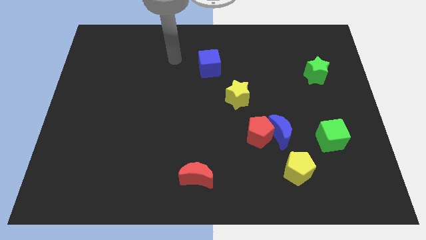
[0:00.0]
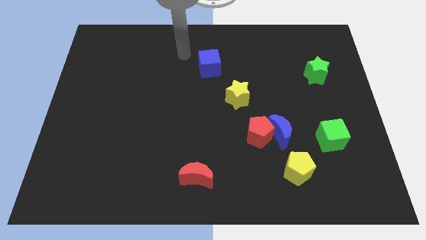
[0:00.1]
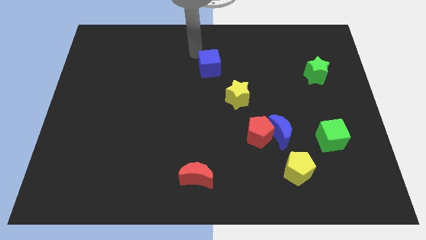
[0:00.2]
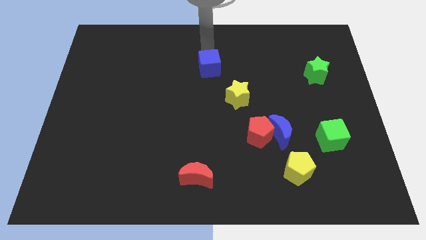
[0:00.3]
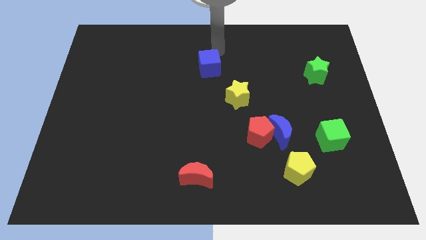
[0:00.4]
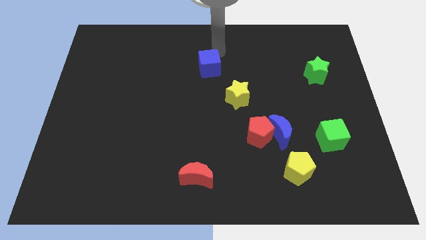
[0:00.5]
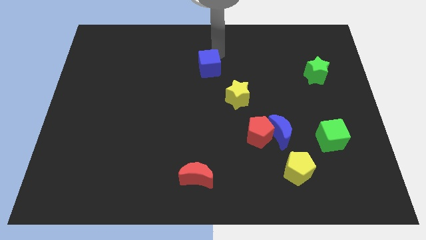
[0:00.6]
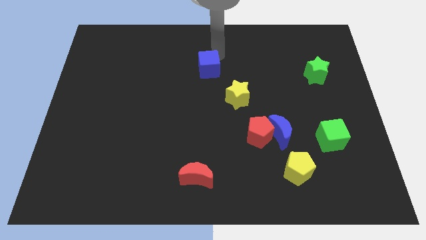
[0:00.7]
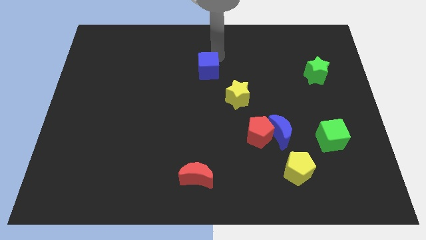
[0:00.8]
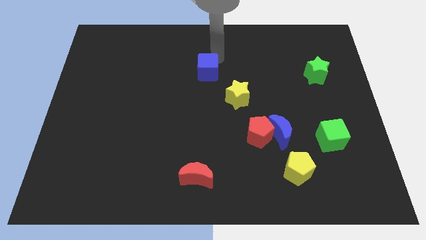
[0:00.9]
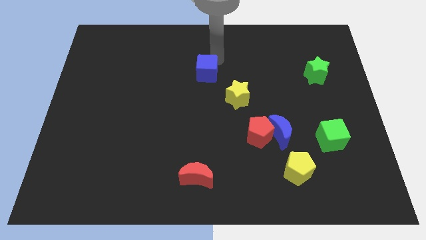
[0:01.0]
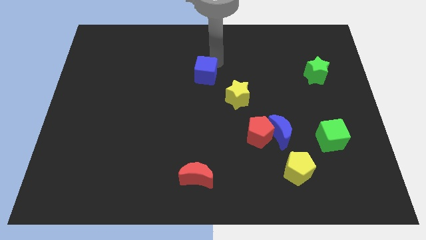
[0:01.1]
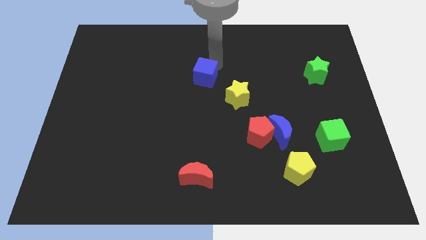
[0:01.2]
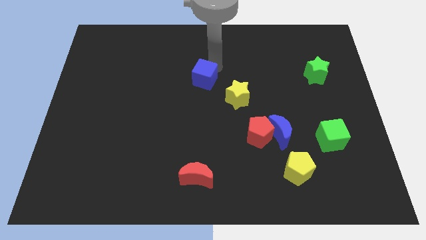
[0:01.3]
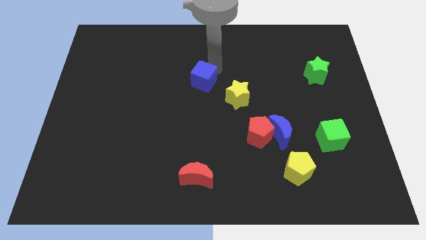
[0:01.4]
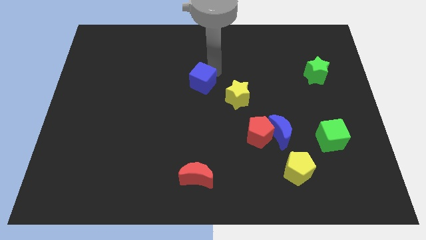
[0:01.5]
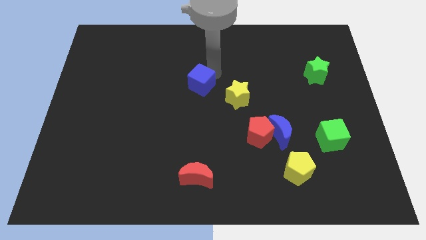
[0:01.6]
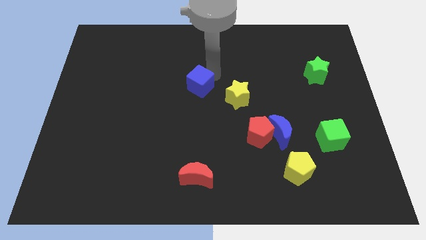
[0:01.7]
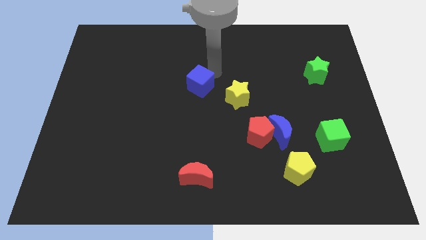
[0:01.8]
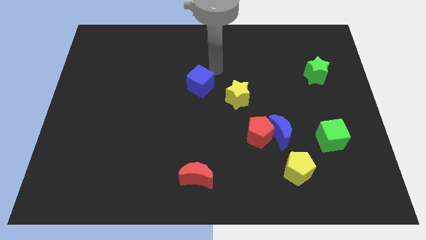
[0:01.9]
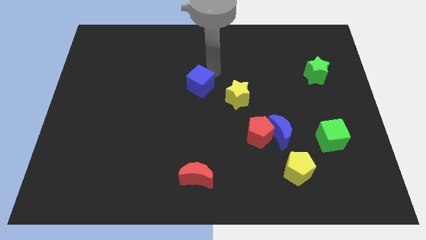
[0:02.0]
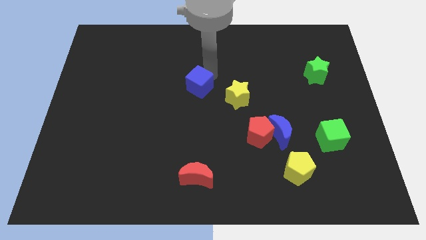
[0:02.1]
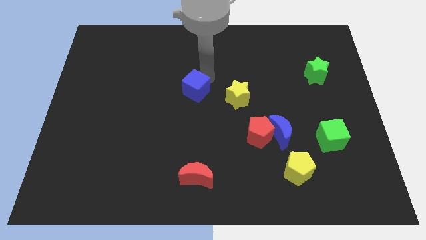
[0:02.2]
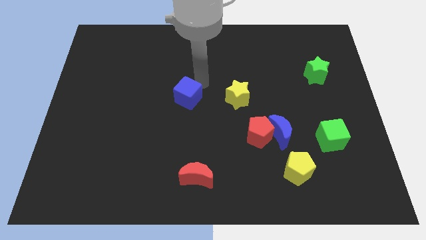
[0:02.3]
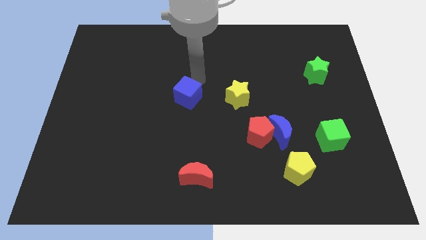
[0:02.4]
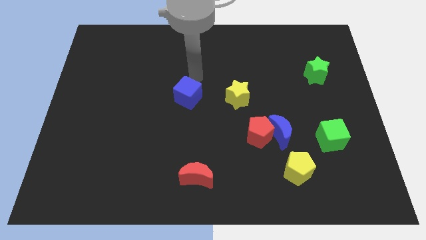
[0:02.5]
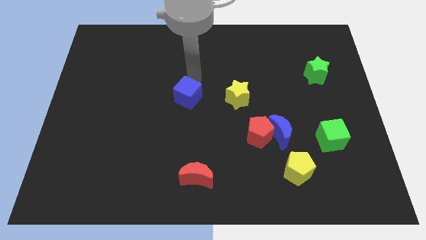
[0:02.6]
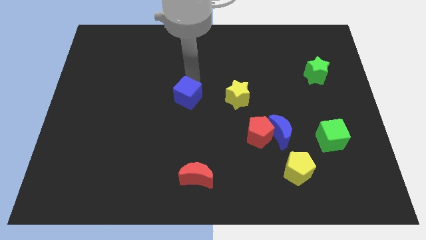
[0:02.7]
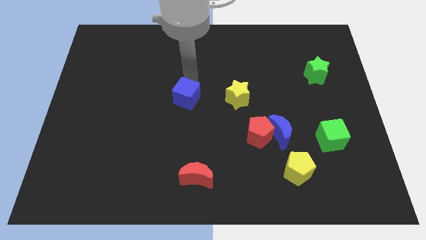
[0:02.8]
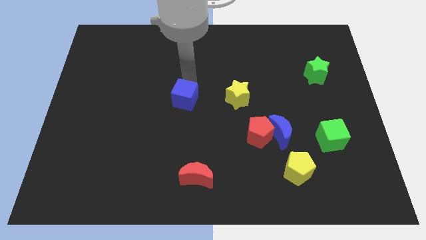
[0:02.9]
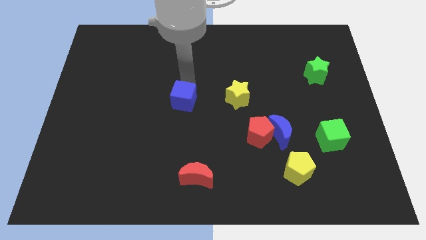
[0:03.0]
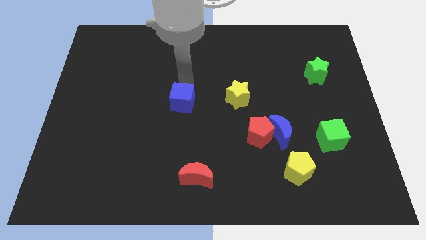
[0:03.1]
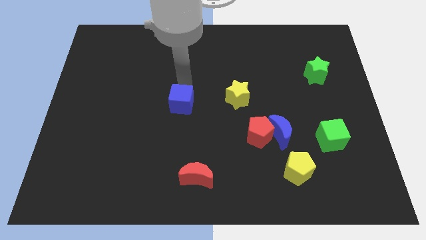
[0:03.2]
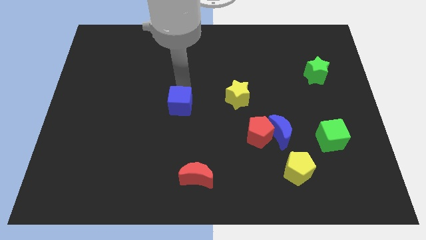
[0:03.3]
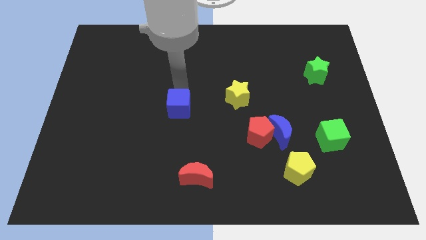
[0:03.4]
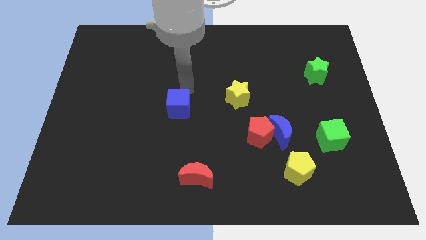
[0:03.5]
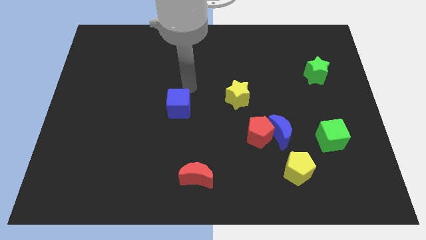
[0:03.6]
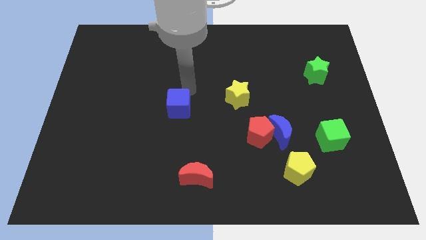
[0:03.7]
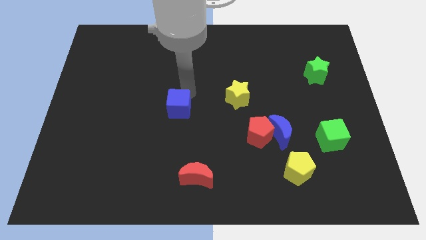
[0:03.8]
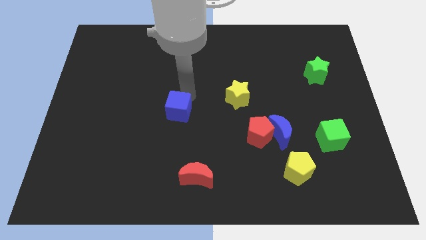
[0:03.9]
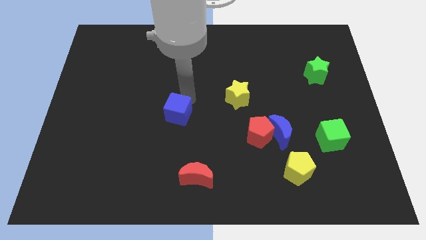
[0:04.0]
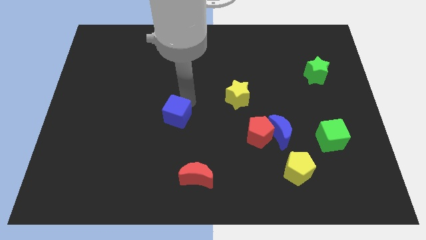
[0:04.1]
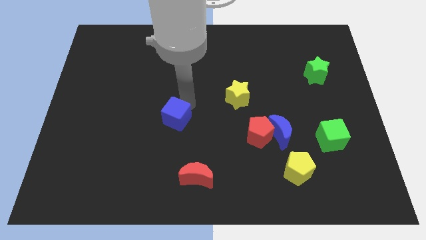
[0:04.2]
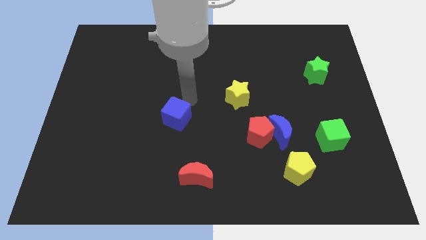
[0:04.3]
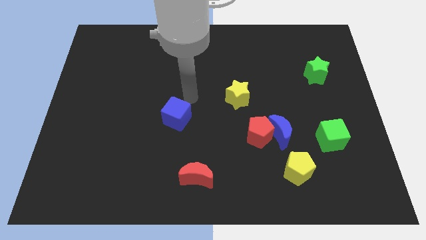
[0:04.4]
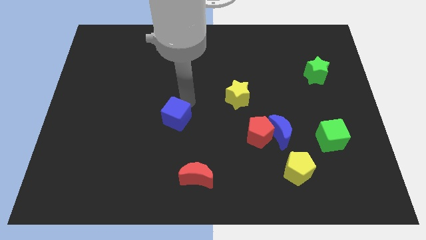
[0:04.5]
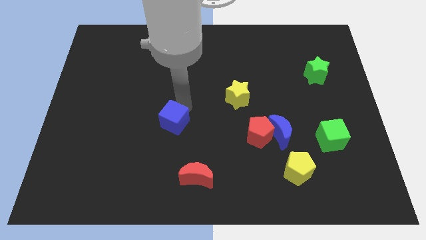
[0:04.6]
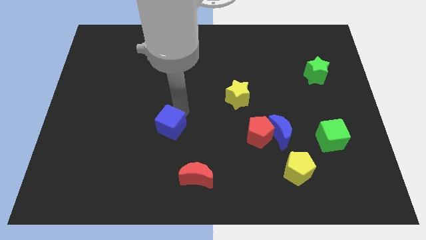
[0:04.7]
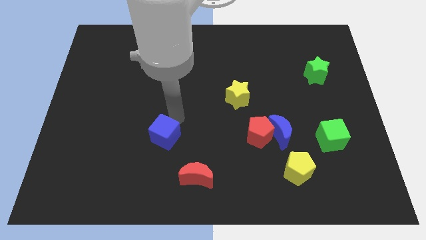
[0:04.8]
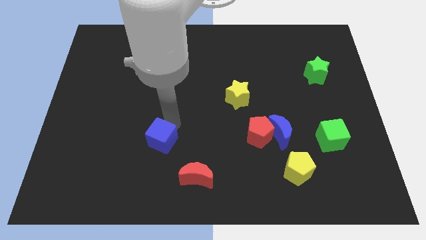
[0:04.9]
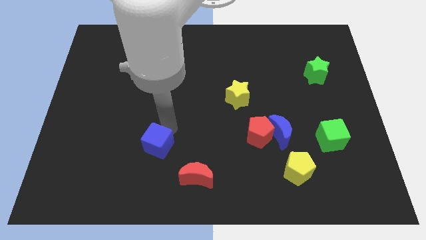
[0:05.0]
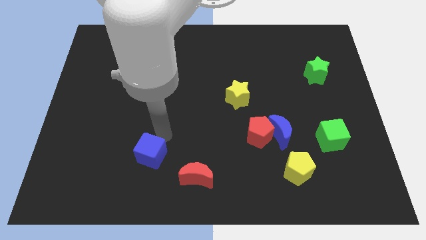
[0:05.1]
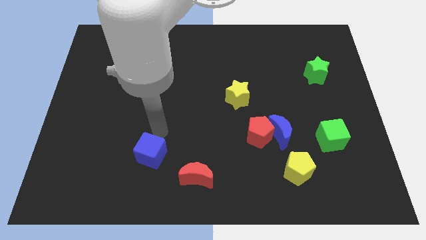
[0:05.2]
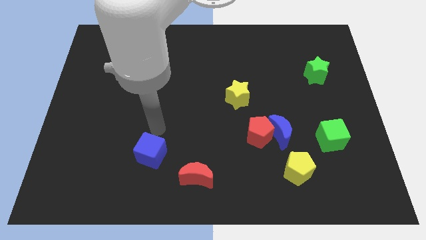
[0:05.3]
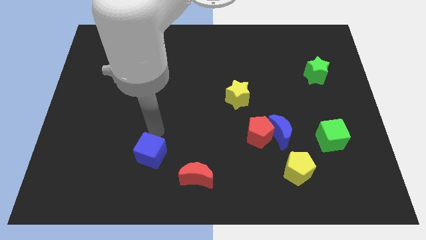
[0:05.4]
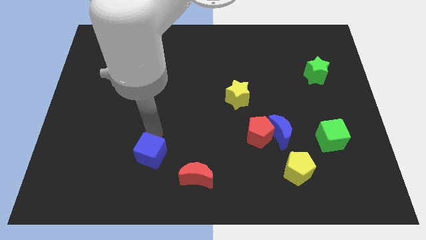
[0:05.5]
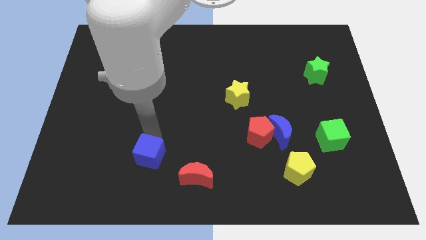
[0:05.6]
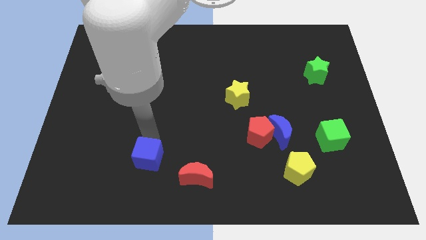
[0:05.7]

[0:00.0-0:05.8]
move the blue cube just left of the red moon

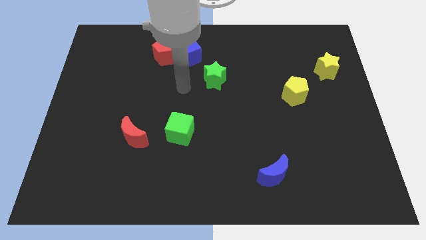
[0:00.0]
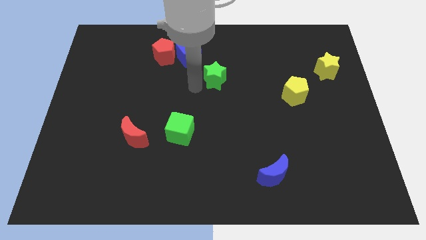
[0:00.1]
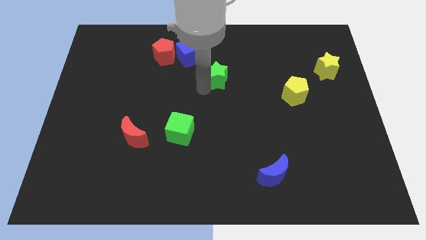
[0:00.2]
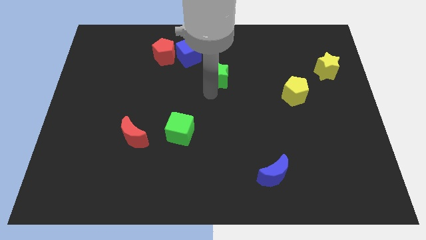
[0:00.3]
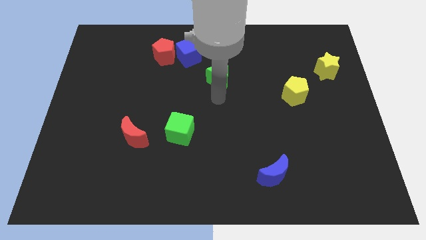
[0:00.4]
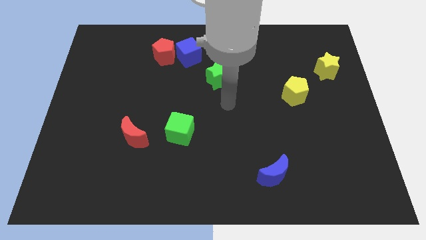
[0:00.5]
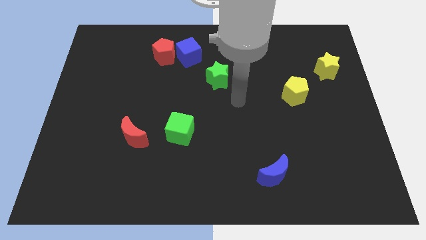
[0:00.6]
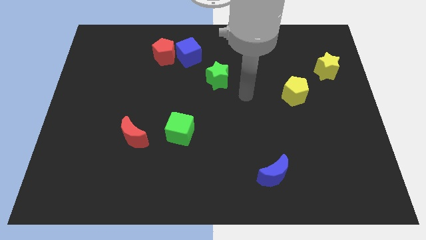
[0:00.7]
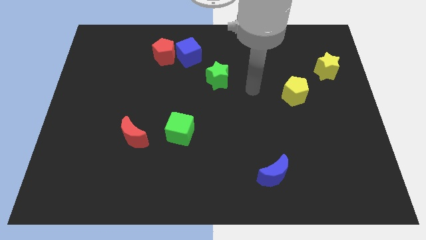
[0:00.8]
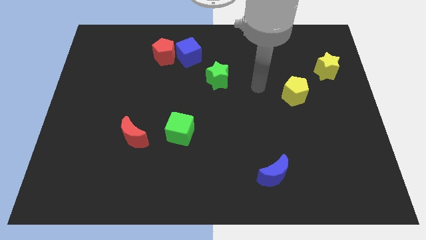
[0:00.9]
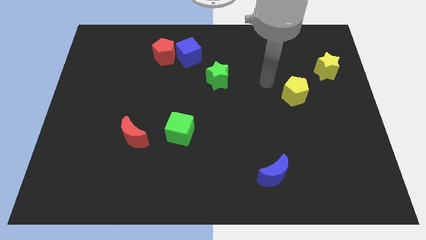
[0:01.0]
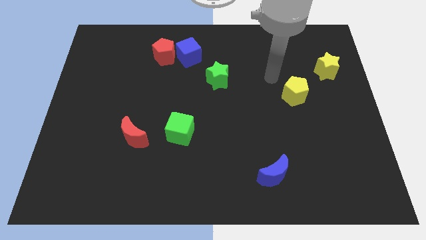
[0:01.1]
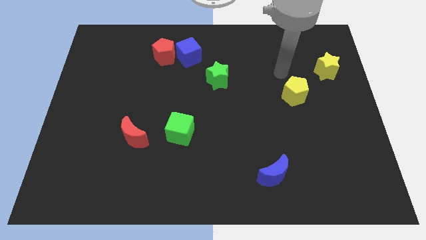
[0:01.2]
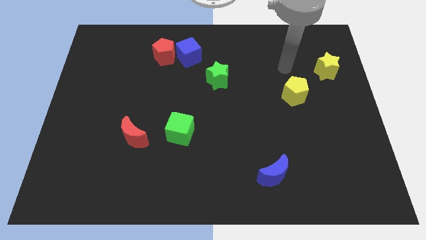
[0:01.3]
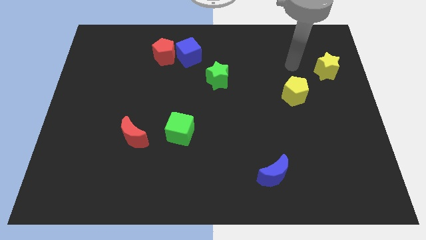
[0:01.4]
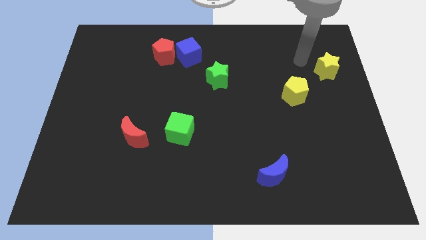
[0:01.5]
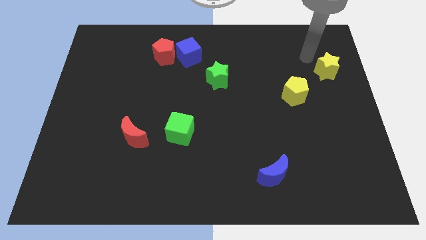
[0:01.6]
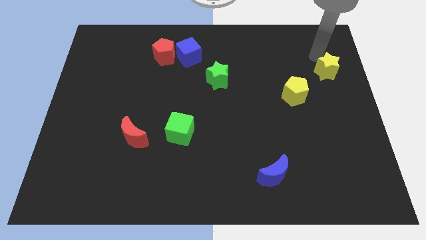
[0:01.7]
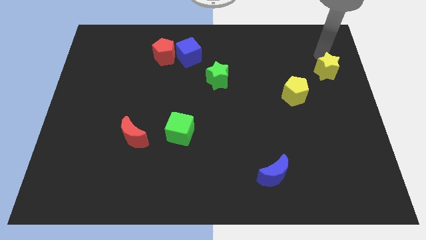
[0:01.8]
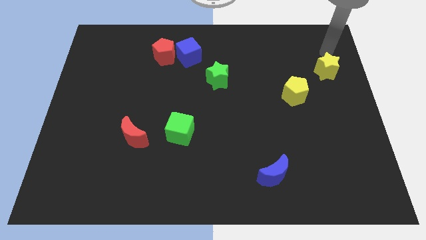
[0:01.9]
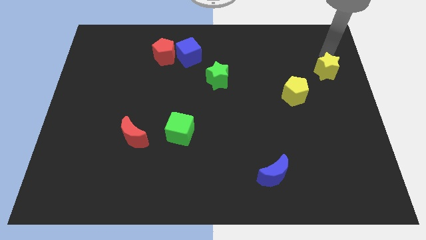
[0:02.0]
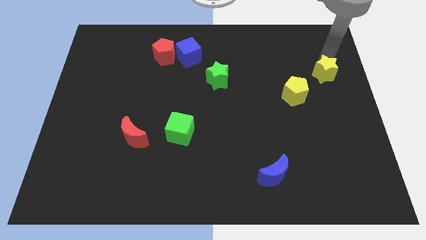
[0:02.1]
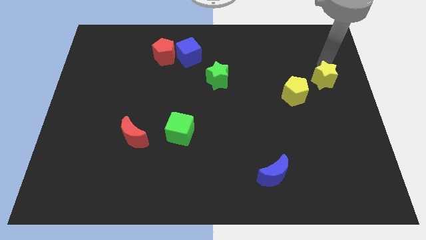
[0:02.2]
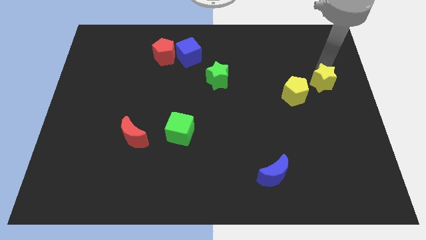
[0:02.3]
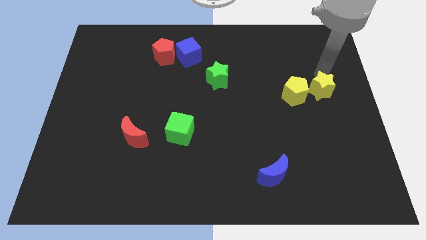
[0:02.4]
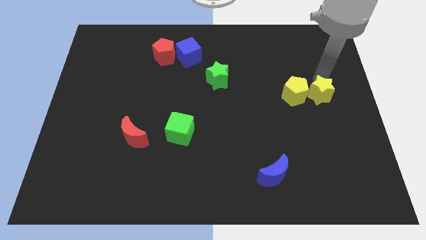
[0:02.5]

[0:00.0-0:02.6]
slide the yellow star to the bottom right side of the yellow pentagon
